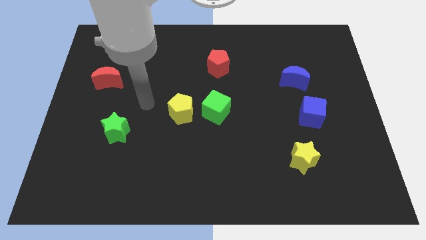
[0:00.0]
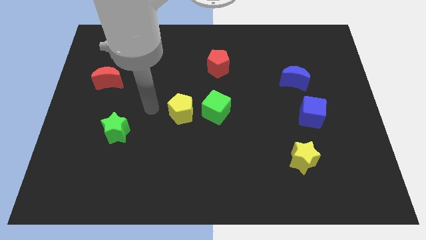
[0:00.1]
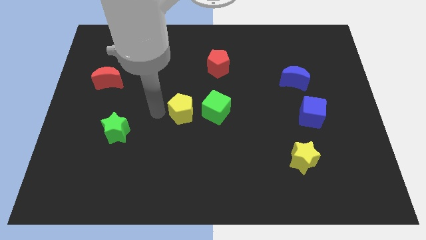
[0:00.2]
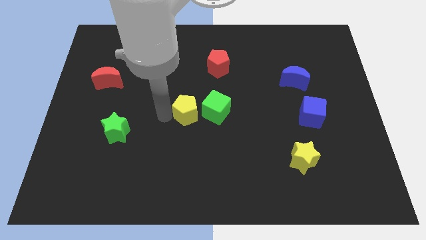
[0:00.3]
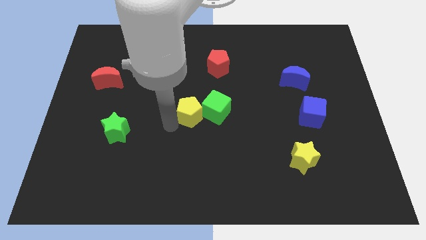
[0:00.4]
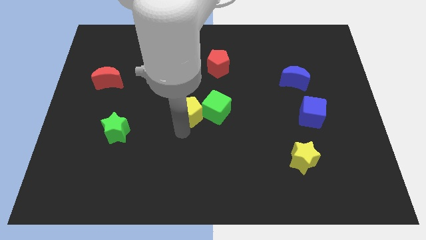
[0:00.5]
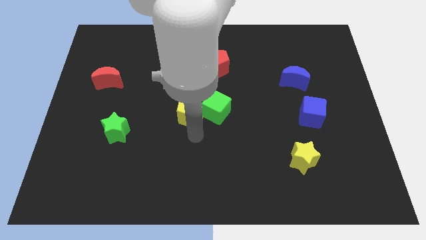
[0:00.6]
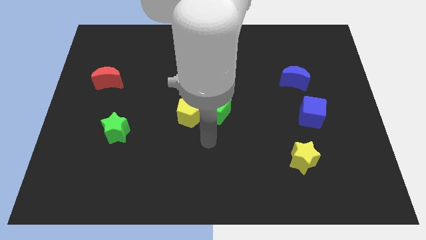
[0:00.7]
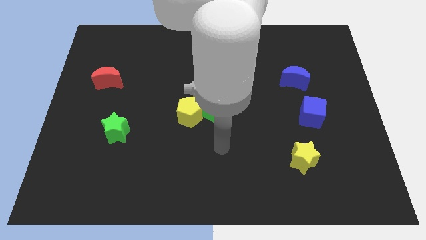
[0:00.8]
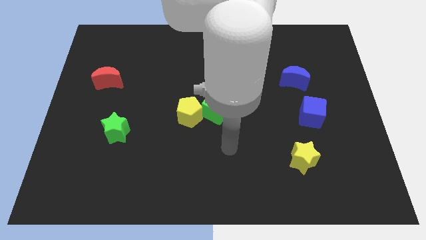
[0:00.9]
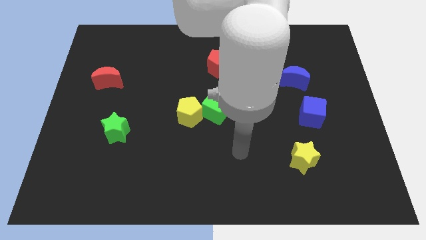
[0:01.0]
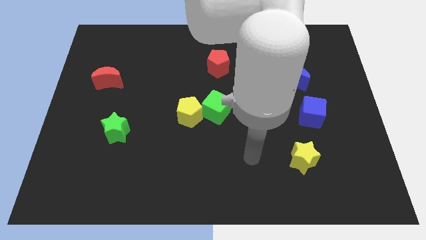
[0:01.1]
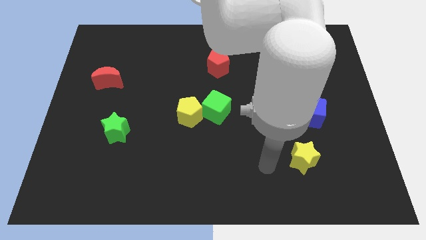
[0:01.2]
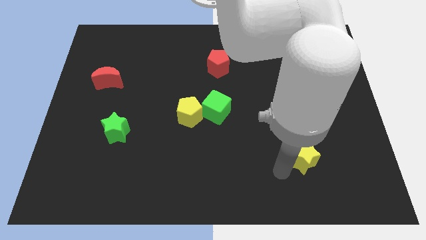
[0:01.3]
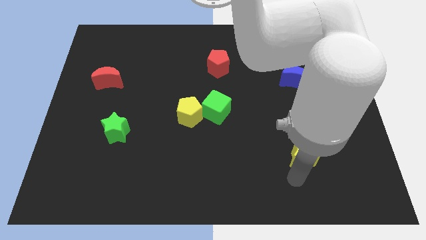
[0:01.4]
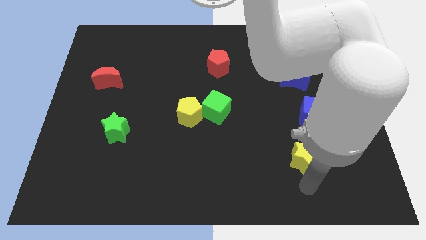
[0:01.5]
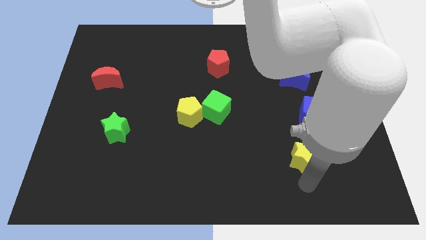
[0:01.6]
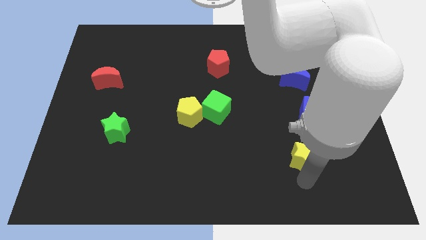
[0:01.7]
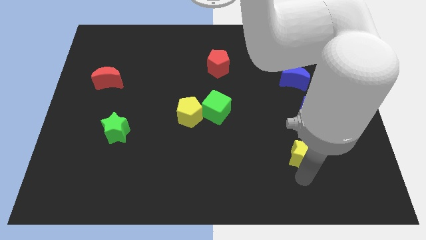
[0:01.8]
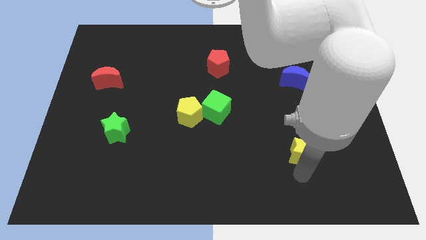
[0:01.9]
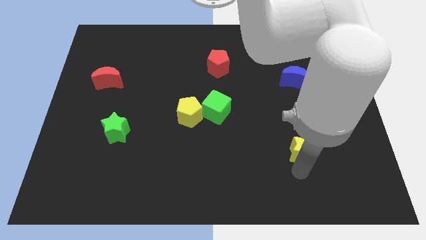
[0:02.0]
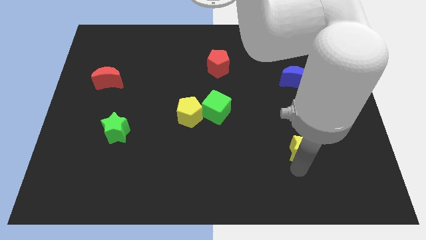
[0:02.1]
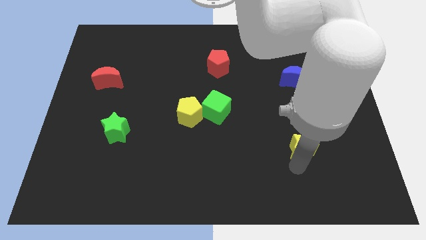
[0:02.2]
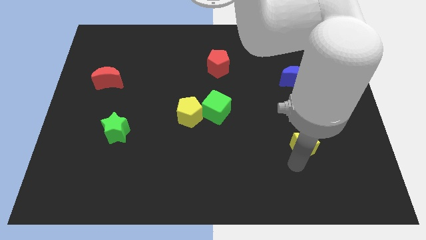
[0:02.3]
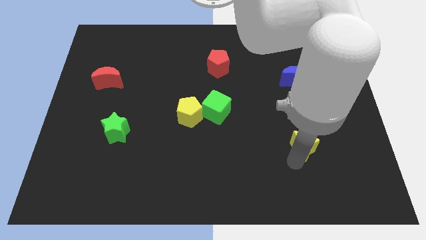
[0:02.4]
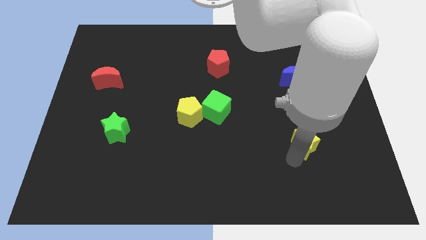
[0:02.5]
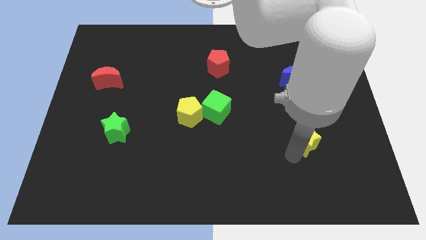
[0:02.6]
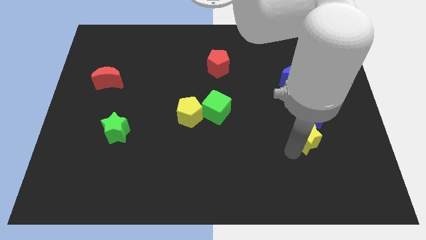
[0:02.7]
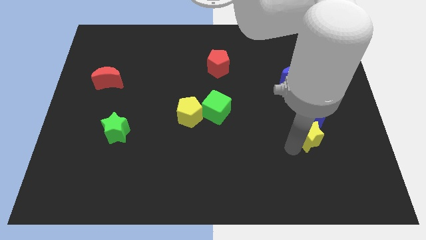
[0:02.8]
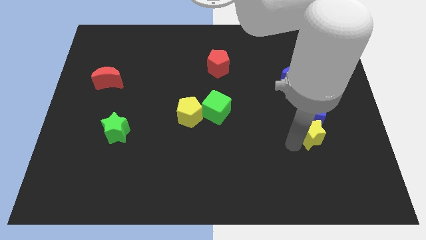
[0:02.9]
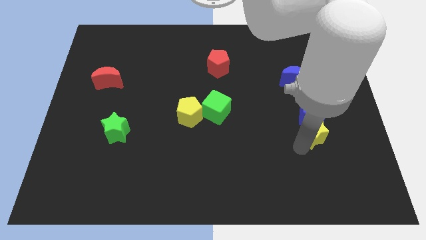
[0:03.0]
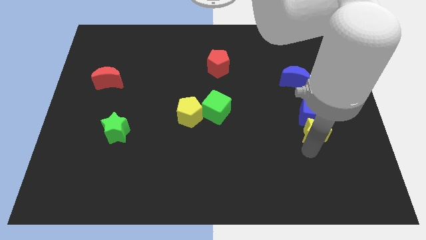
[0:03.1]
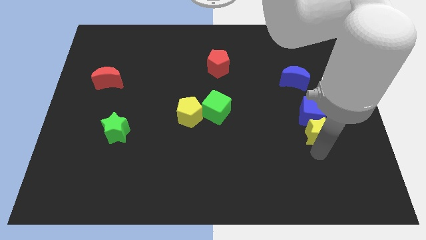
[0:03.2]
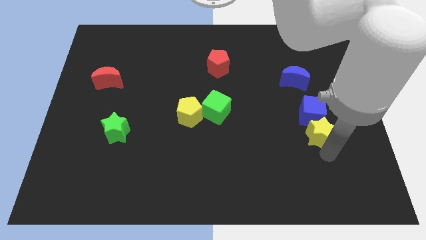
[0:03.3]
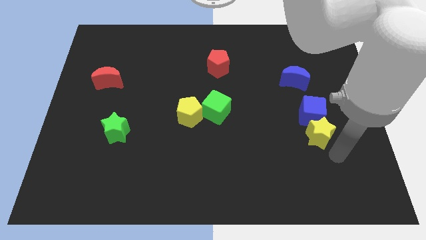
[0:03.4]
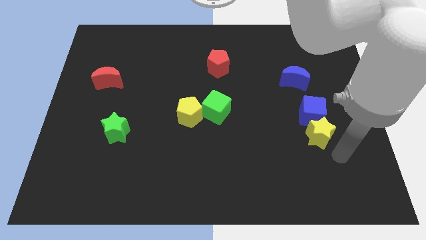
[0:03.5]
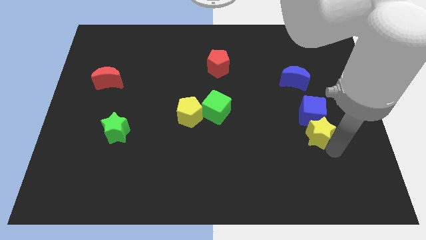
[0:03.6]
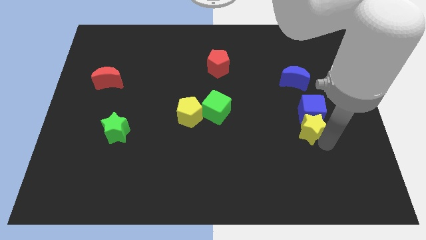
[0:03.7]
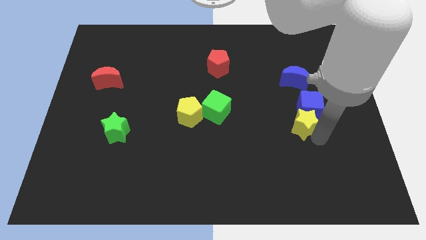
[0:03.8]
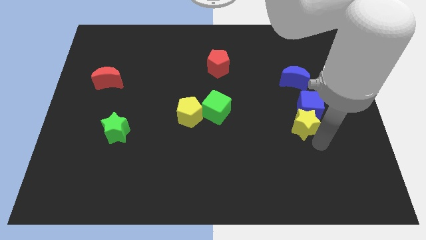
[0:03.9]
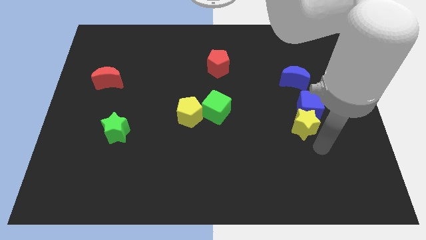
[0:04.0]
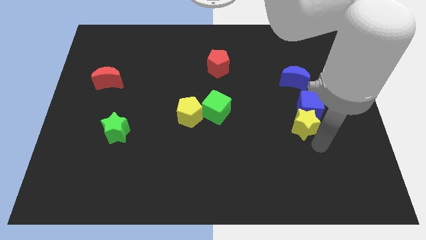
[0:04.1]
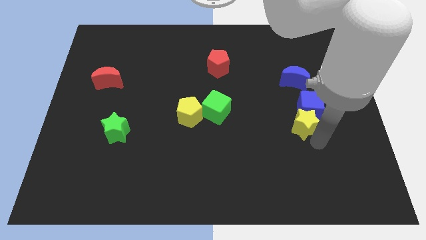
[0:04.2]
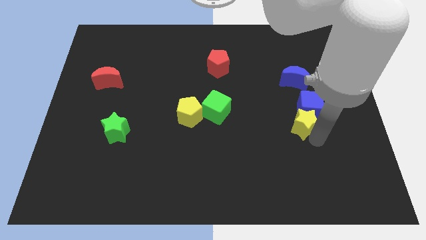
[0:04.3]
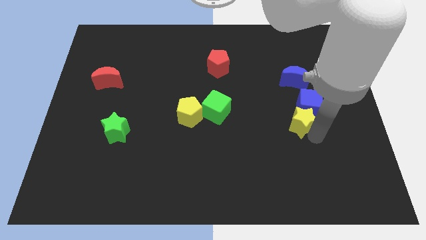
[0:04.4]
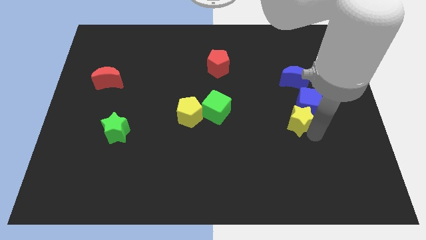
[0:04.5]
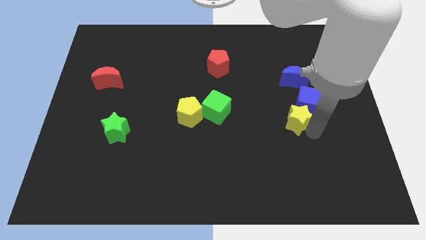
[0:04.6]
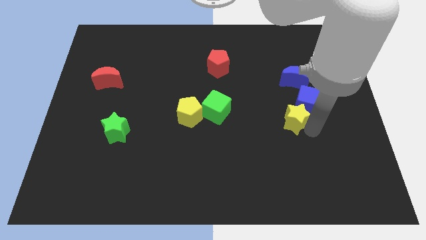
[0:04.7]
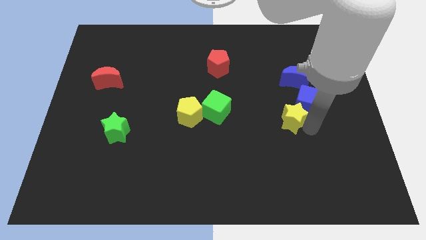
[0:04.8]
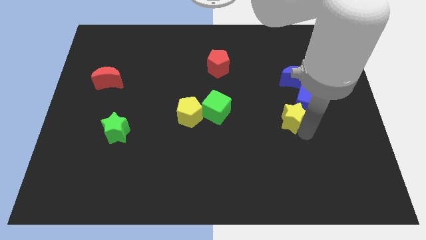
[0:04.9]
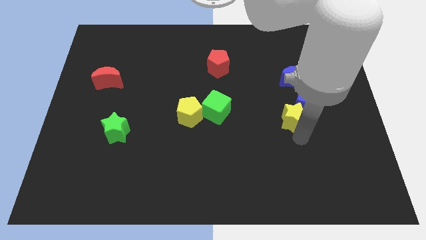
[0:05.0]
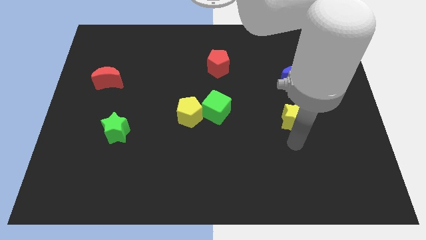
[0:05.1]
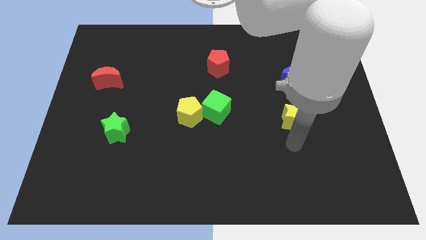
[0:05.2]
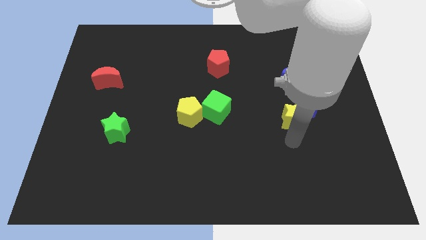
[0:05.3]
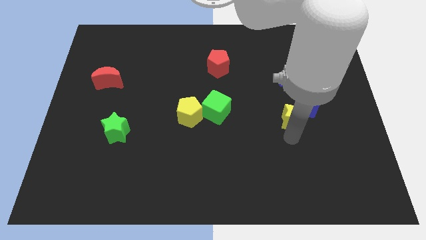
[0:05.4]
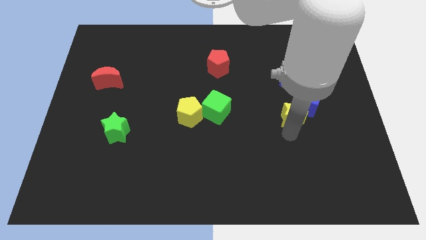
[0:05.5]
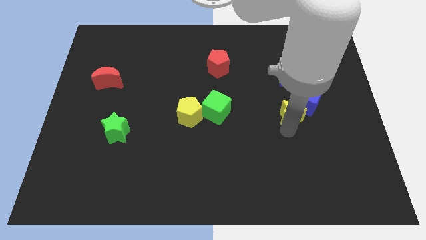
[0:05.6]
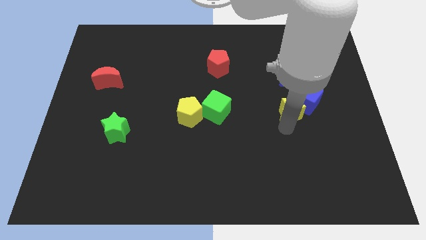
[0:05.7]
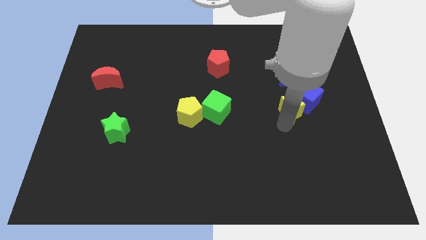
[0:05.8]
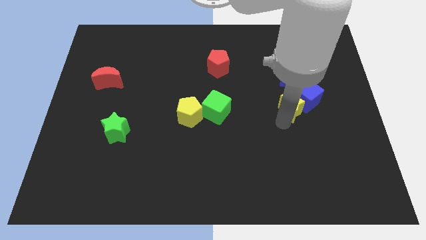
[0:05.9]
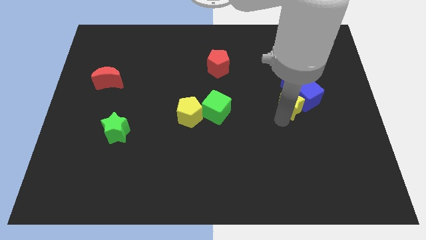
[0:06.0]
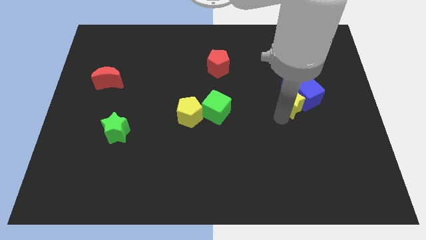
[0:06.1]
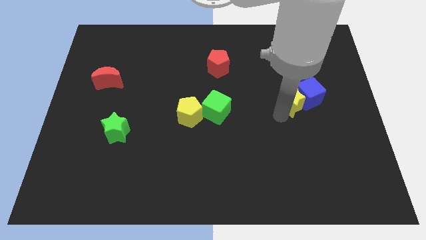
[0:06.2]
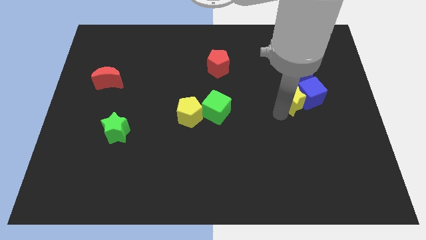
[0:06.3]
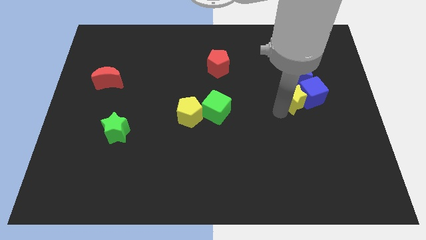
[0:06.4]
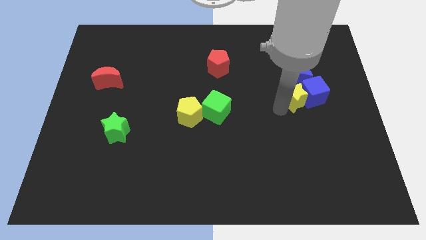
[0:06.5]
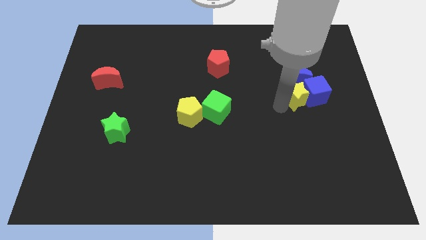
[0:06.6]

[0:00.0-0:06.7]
slide the yellow star next to the blue moon

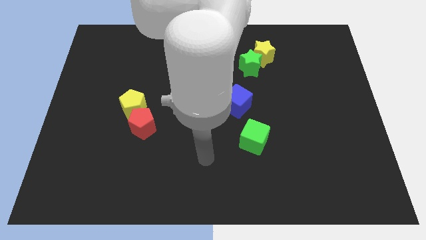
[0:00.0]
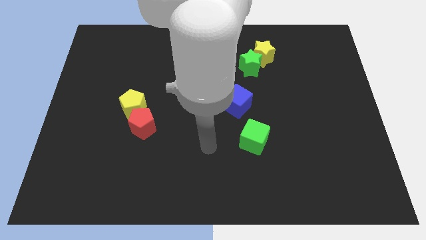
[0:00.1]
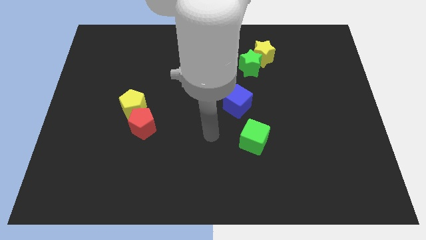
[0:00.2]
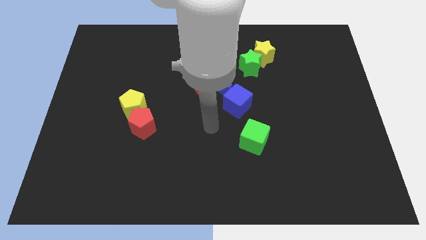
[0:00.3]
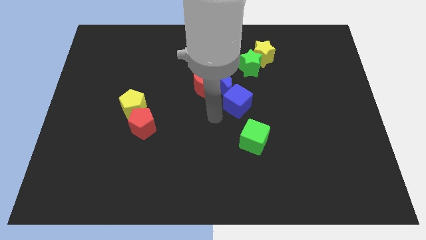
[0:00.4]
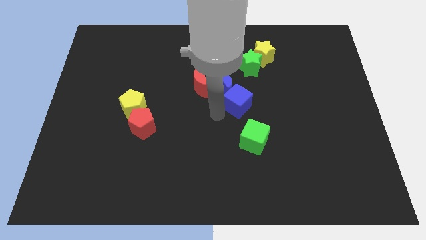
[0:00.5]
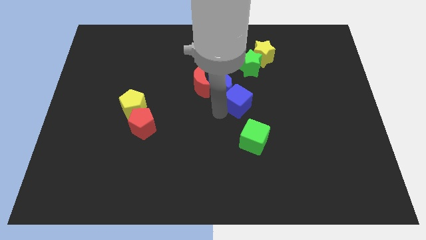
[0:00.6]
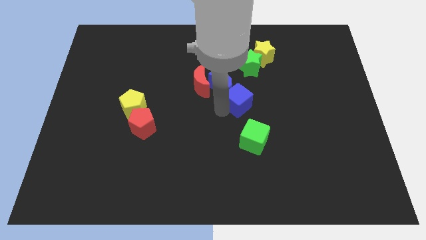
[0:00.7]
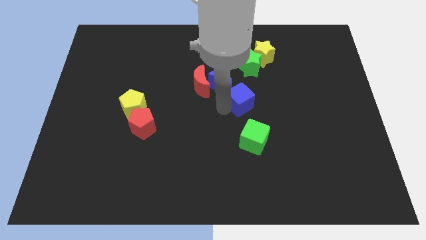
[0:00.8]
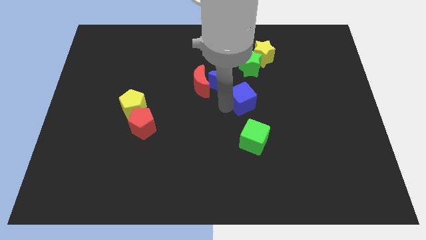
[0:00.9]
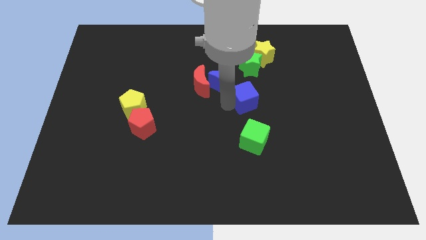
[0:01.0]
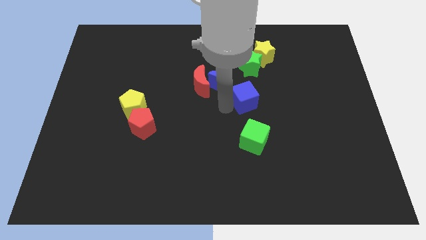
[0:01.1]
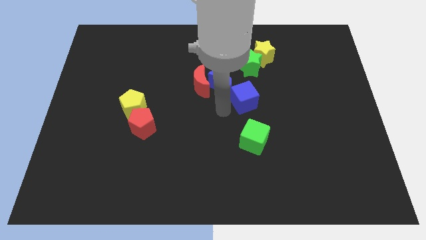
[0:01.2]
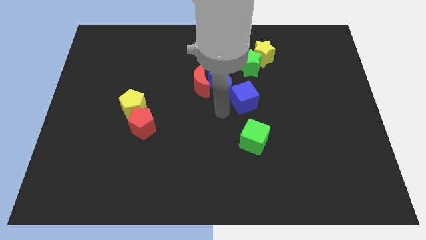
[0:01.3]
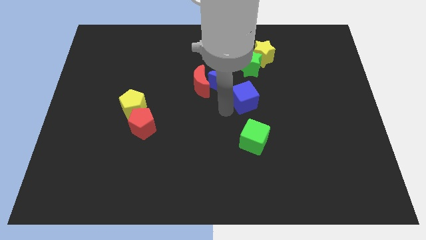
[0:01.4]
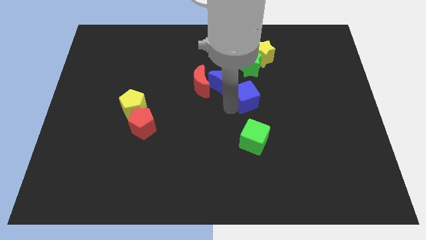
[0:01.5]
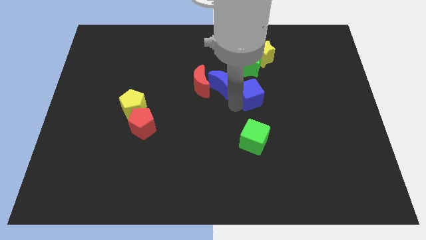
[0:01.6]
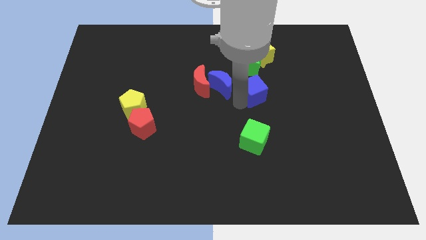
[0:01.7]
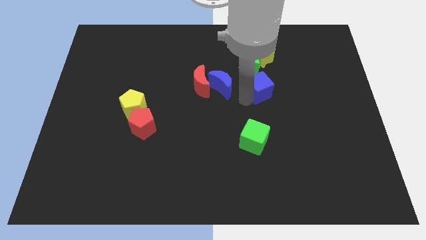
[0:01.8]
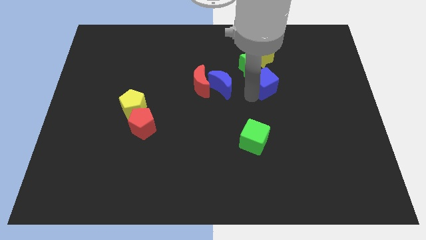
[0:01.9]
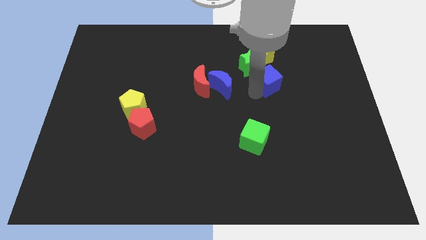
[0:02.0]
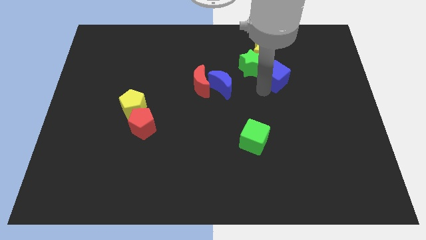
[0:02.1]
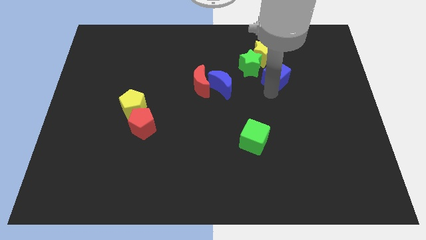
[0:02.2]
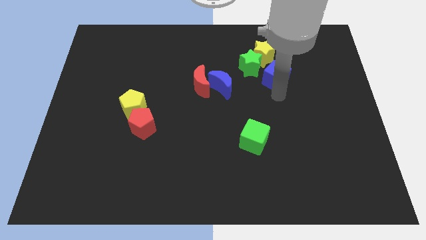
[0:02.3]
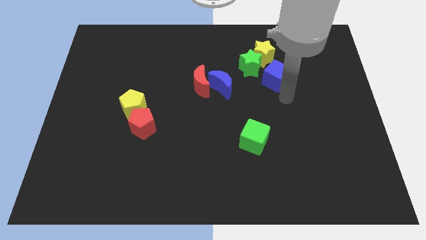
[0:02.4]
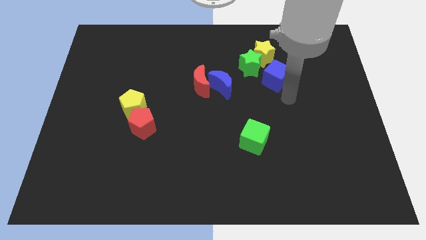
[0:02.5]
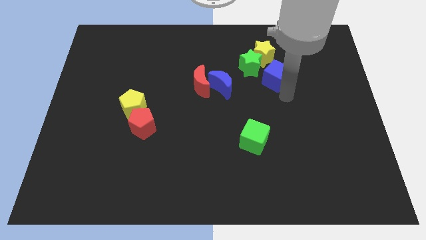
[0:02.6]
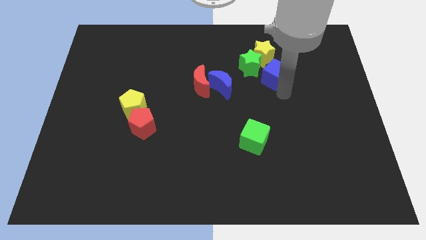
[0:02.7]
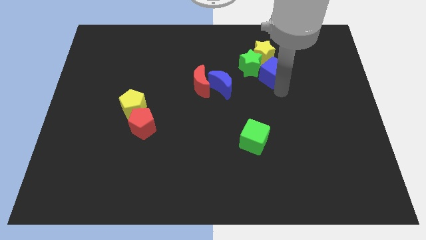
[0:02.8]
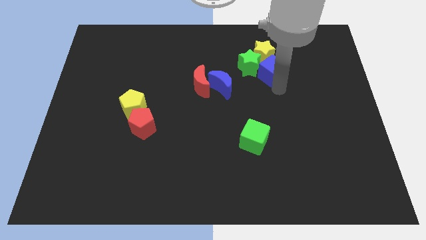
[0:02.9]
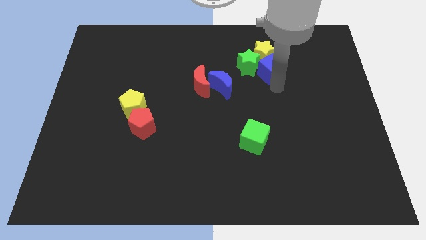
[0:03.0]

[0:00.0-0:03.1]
slide the blue cube to the yellow star
